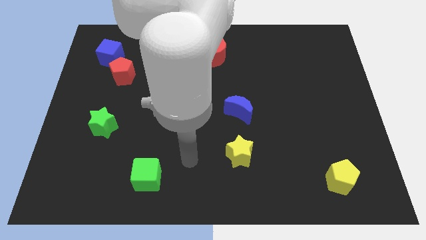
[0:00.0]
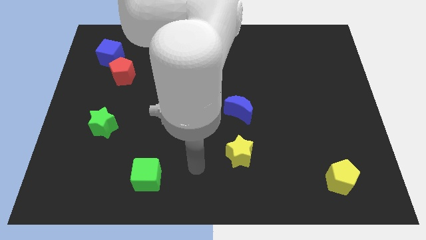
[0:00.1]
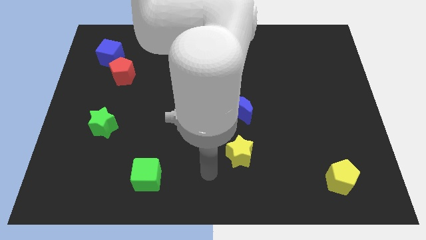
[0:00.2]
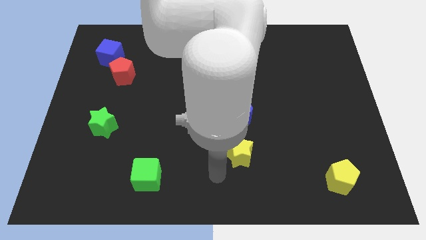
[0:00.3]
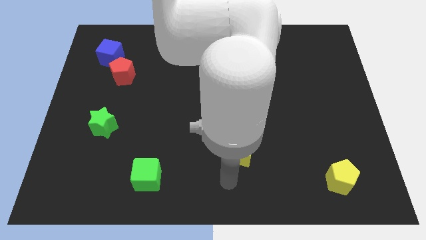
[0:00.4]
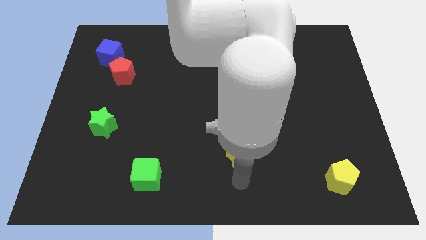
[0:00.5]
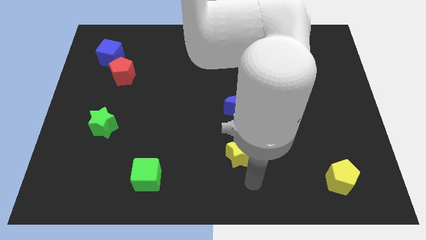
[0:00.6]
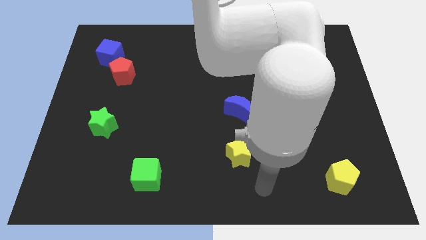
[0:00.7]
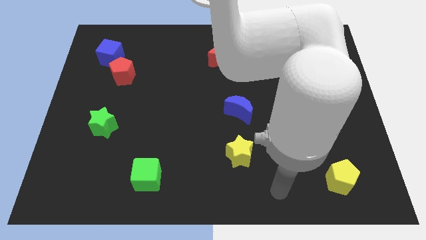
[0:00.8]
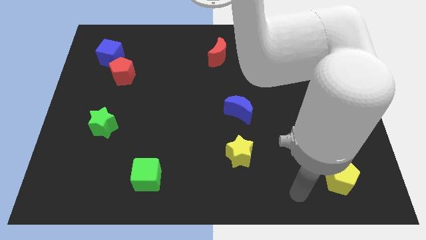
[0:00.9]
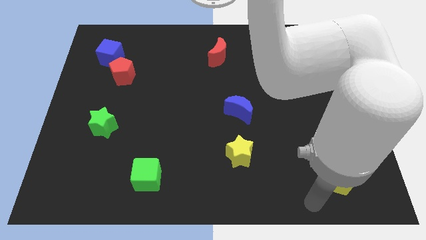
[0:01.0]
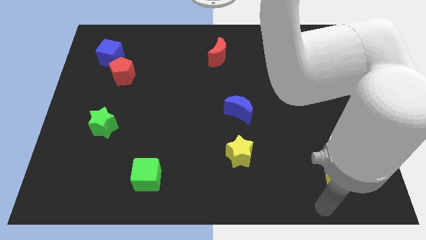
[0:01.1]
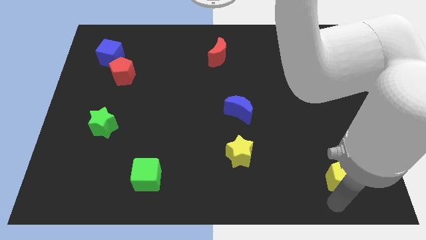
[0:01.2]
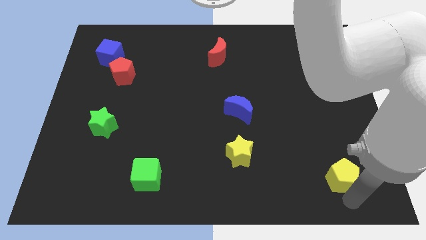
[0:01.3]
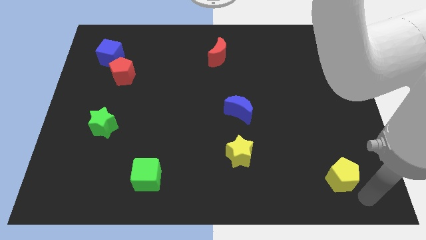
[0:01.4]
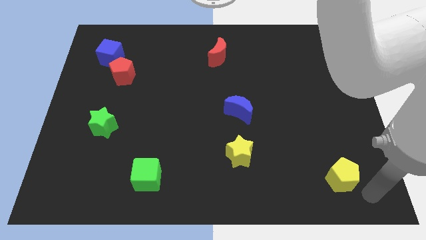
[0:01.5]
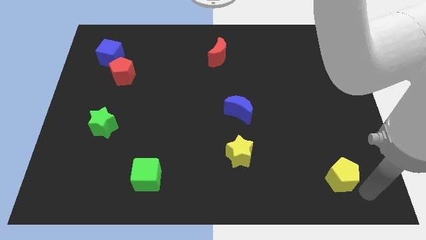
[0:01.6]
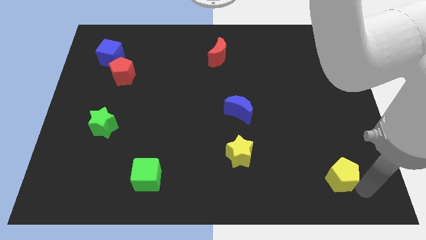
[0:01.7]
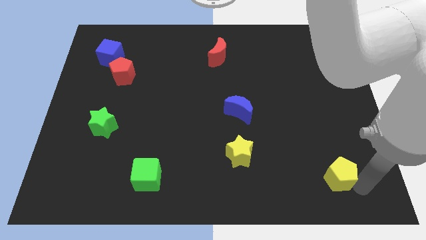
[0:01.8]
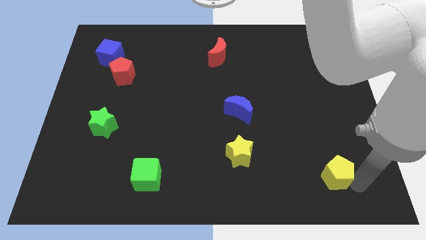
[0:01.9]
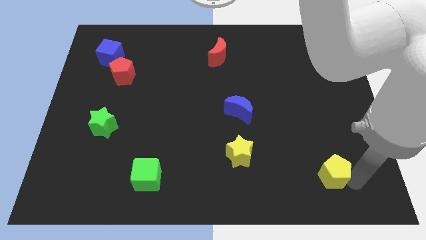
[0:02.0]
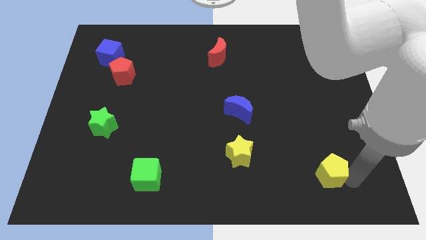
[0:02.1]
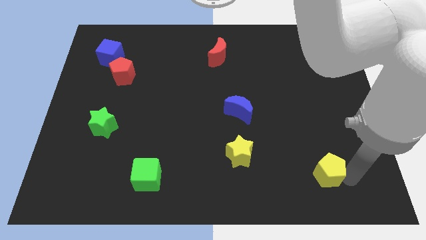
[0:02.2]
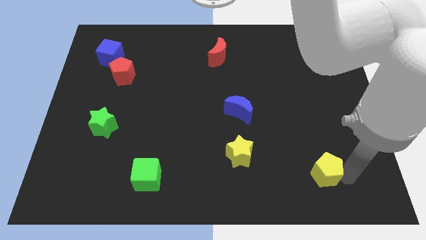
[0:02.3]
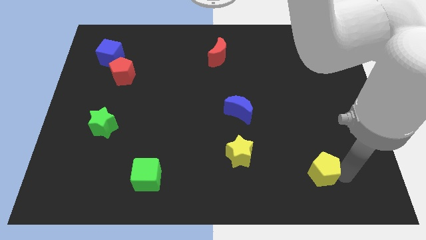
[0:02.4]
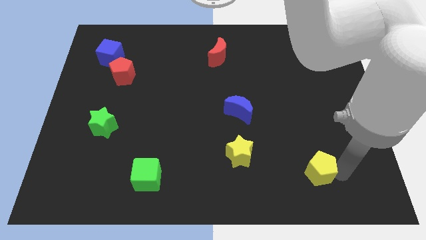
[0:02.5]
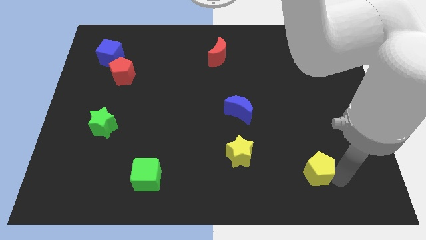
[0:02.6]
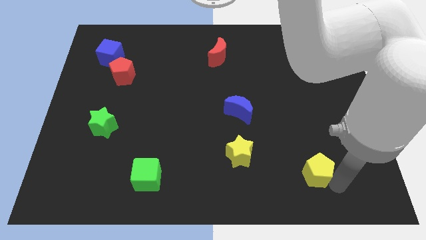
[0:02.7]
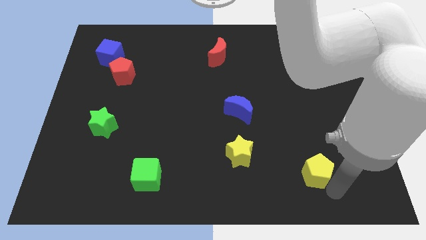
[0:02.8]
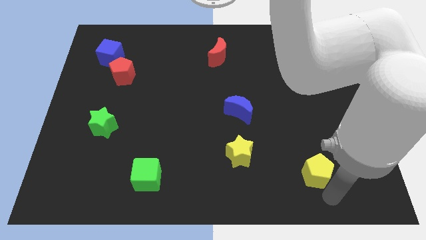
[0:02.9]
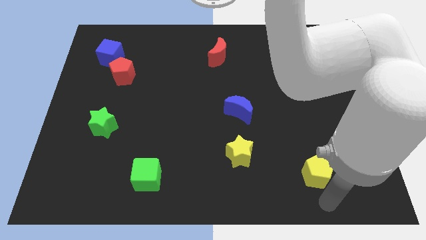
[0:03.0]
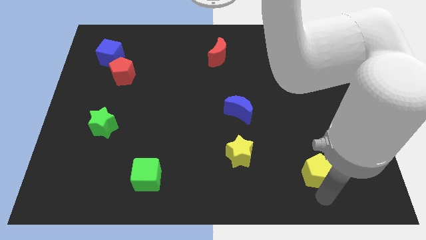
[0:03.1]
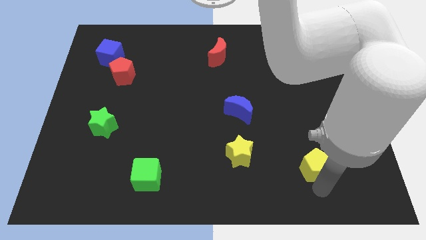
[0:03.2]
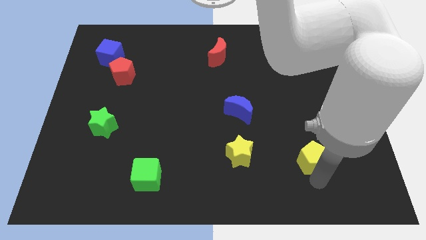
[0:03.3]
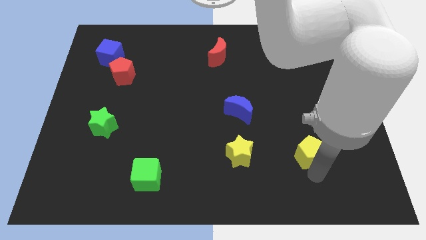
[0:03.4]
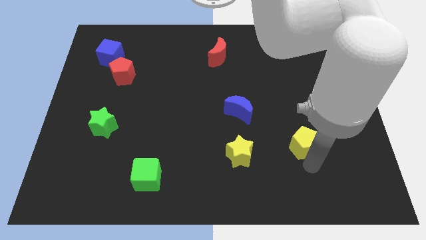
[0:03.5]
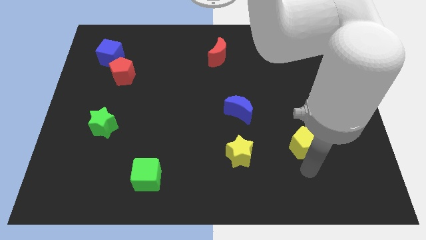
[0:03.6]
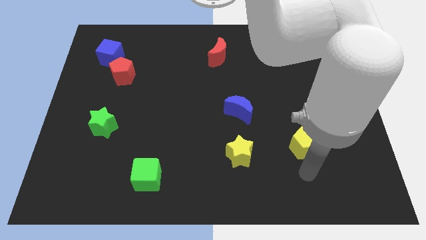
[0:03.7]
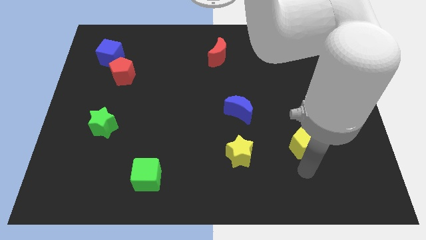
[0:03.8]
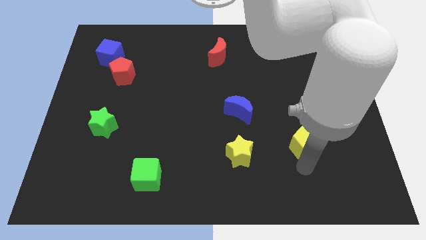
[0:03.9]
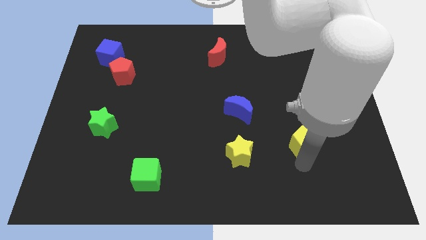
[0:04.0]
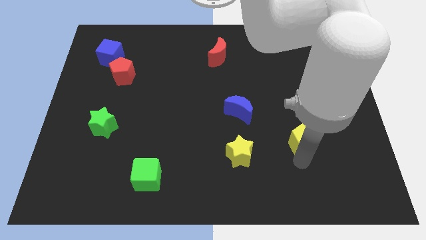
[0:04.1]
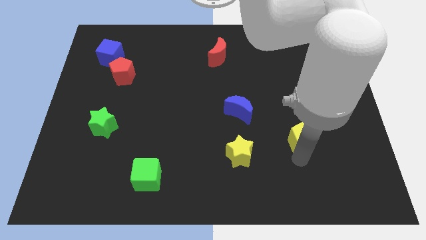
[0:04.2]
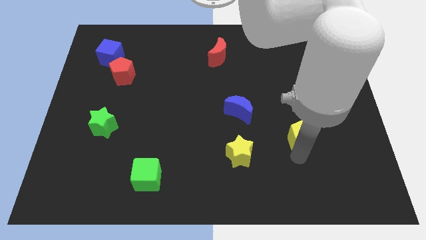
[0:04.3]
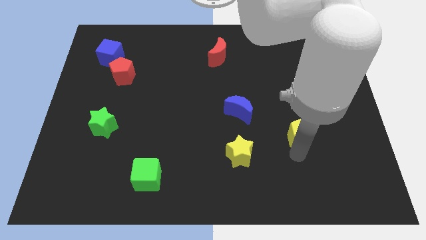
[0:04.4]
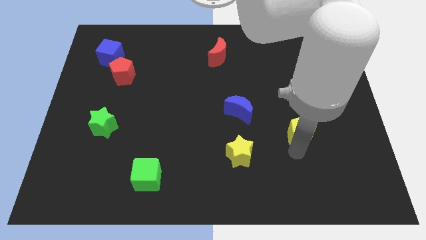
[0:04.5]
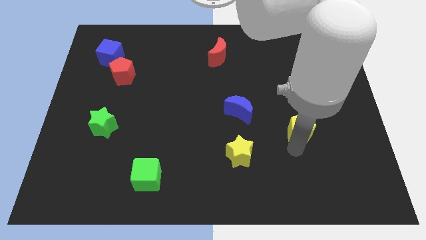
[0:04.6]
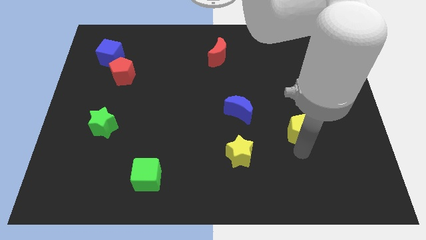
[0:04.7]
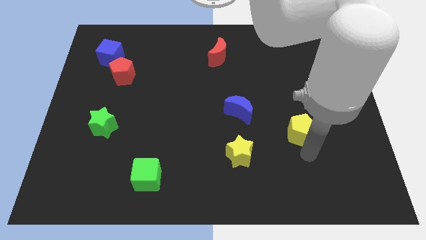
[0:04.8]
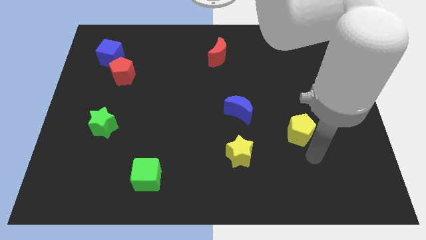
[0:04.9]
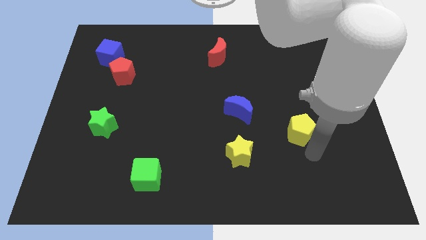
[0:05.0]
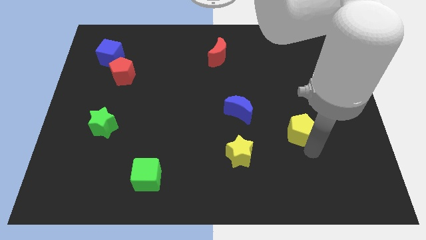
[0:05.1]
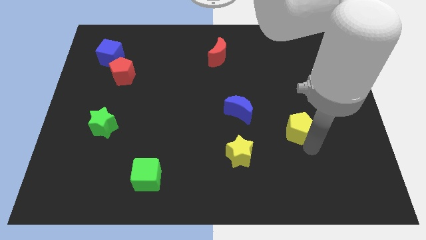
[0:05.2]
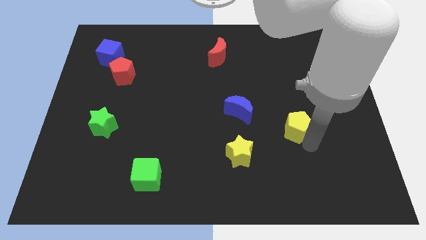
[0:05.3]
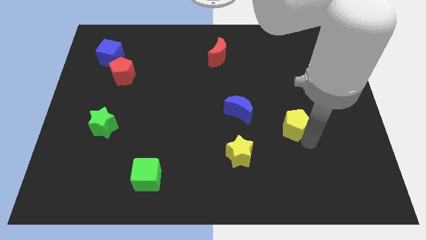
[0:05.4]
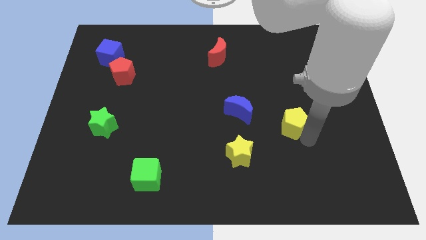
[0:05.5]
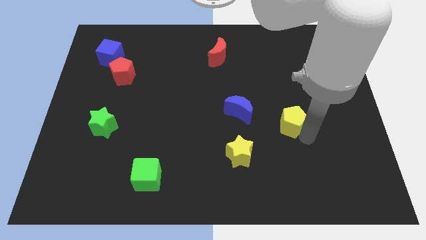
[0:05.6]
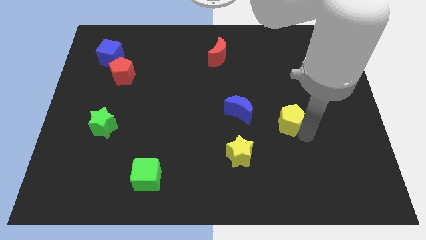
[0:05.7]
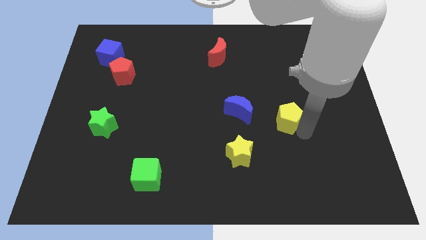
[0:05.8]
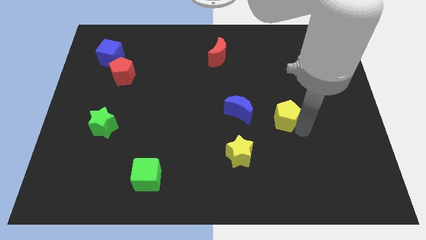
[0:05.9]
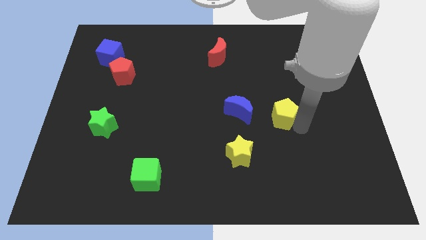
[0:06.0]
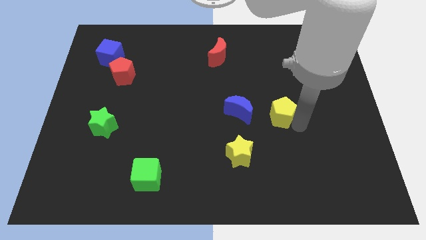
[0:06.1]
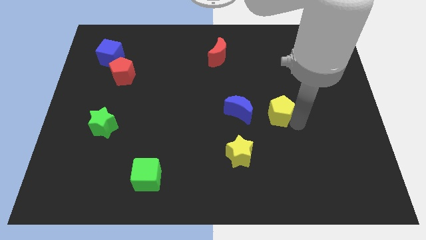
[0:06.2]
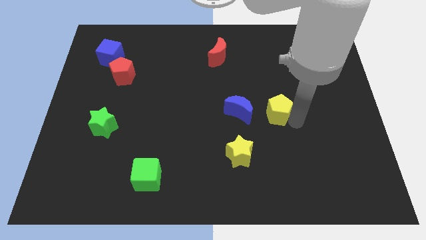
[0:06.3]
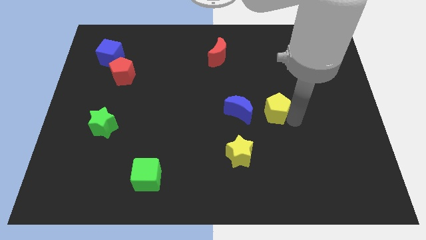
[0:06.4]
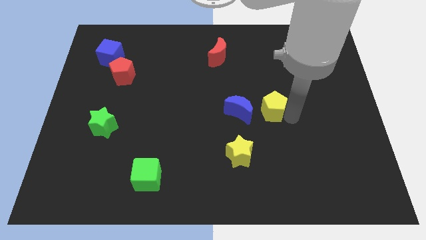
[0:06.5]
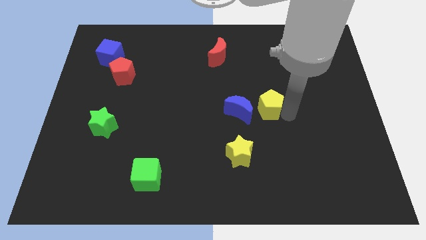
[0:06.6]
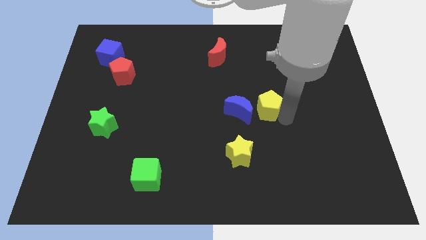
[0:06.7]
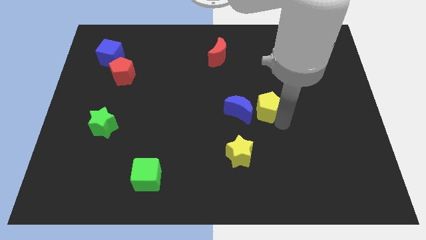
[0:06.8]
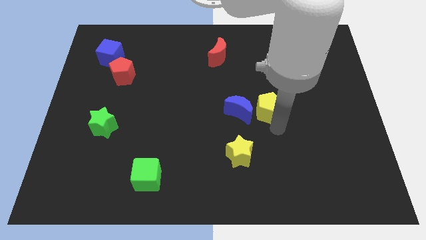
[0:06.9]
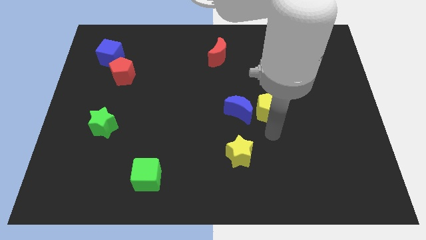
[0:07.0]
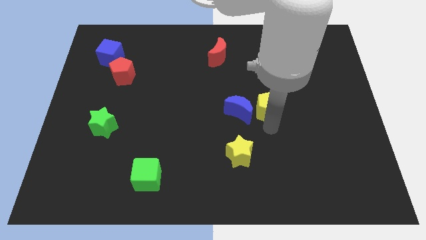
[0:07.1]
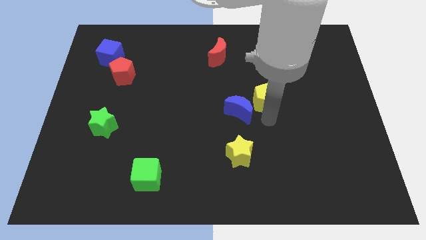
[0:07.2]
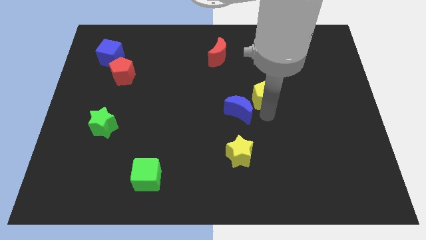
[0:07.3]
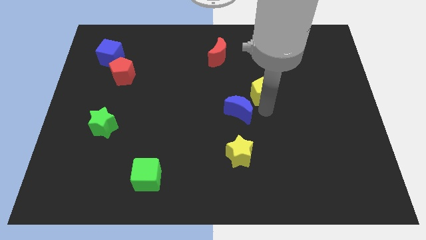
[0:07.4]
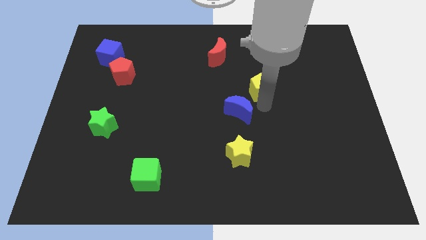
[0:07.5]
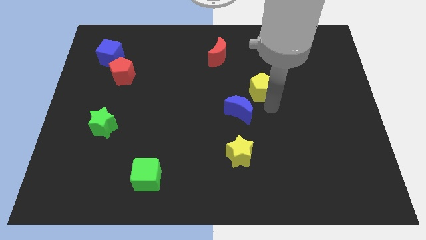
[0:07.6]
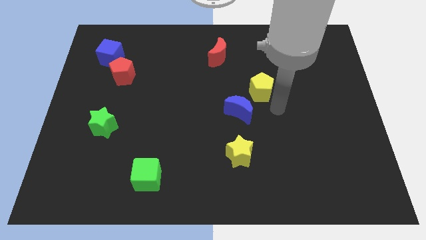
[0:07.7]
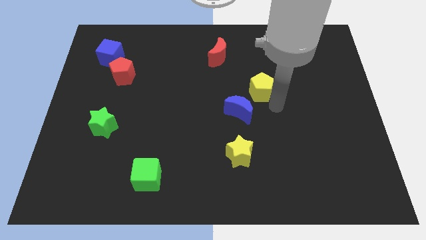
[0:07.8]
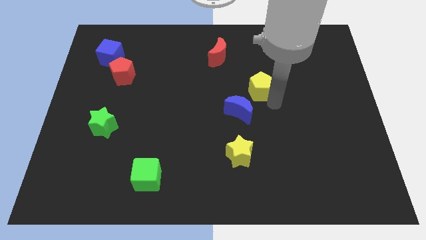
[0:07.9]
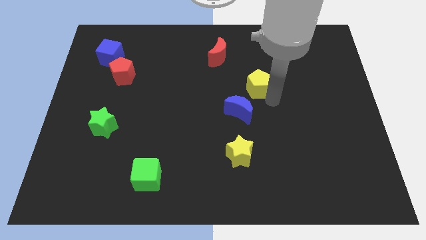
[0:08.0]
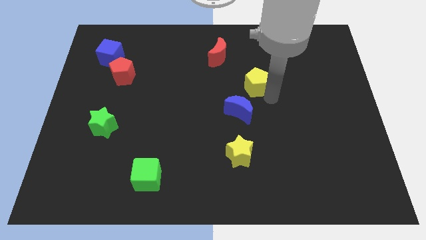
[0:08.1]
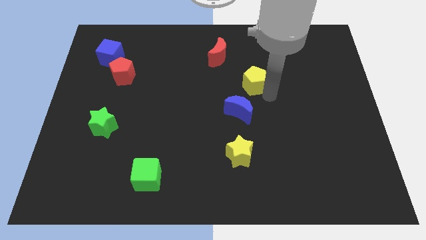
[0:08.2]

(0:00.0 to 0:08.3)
slide the yellow pentagon to the bottom right of the red moon
